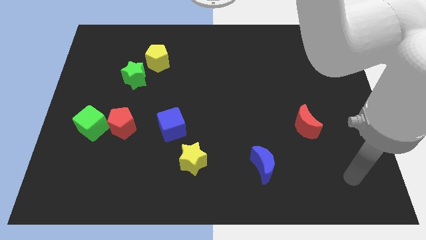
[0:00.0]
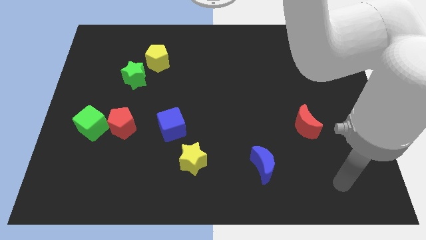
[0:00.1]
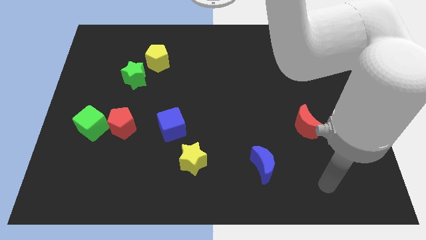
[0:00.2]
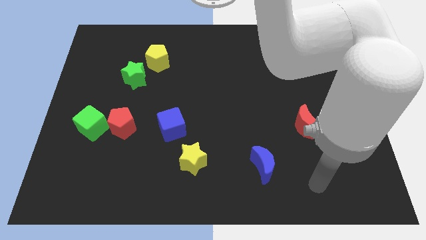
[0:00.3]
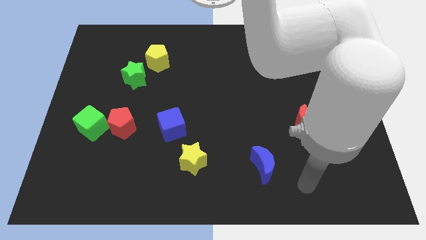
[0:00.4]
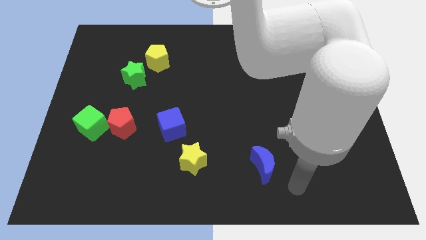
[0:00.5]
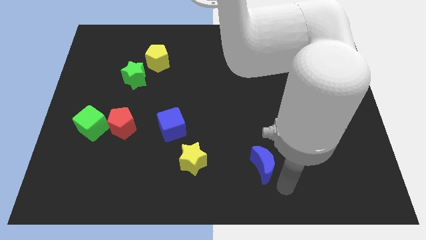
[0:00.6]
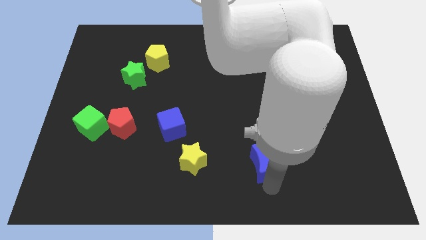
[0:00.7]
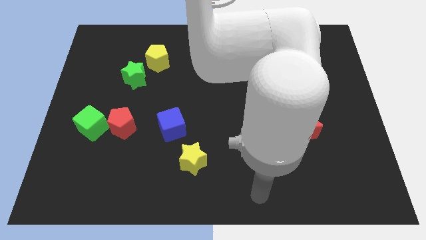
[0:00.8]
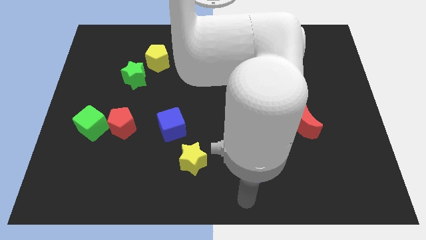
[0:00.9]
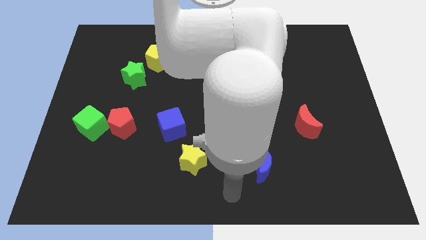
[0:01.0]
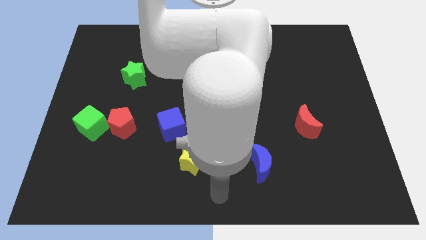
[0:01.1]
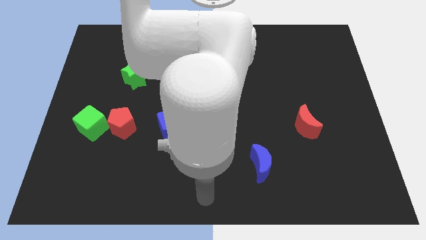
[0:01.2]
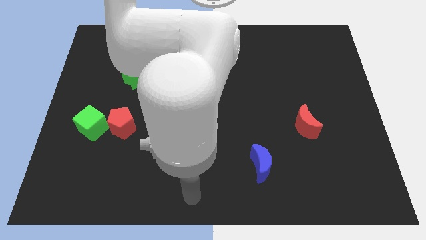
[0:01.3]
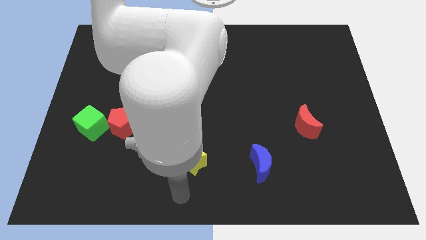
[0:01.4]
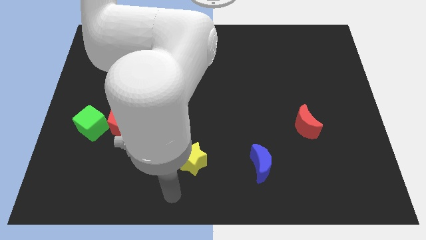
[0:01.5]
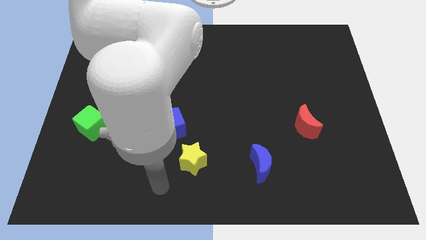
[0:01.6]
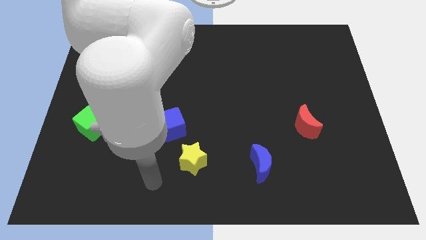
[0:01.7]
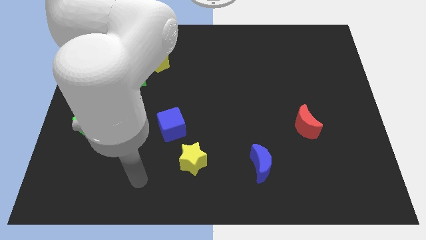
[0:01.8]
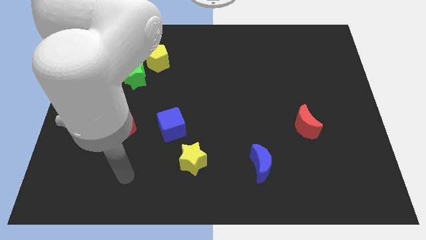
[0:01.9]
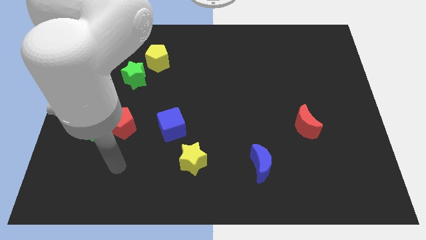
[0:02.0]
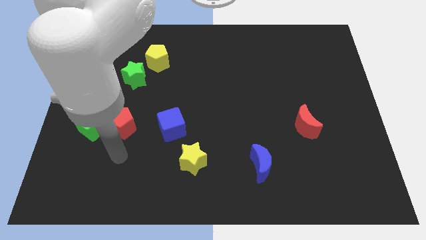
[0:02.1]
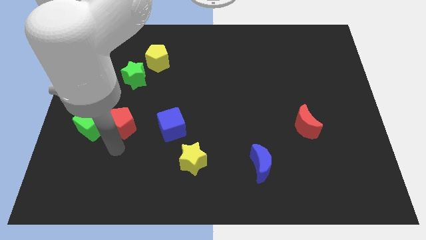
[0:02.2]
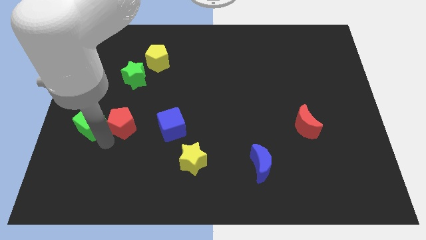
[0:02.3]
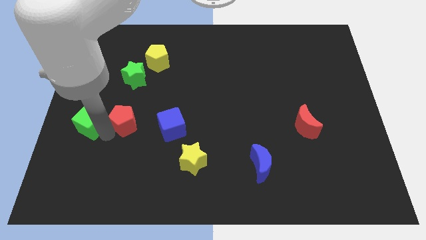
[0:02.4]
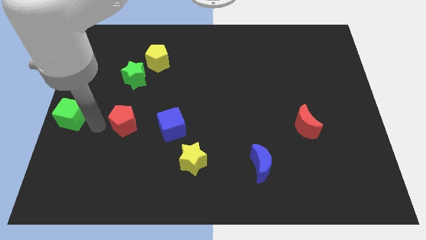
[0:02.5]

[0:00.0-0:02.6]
move the red pentagon away from the green cube

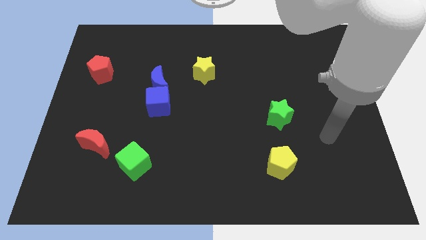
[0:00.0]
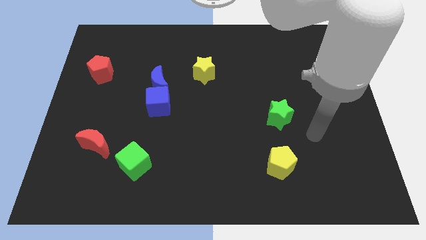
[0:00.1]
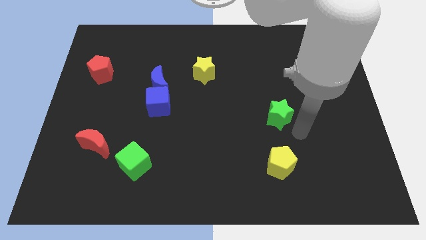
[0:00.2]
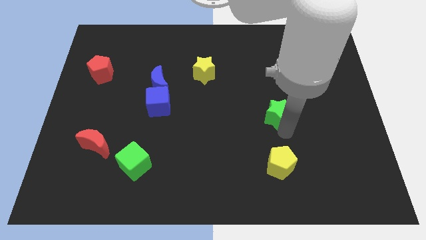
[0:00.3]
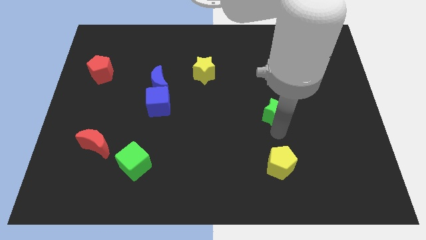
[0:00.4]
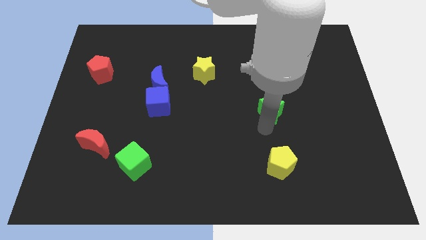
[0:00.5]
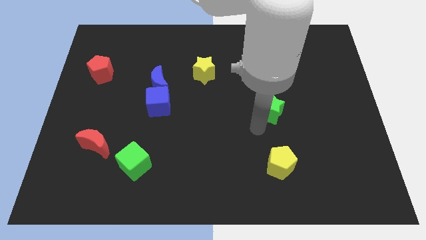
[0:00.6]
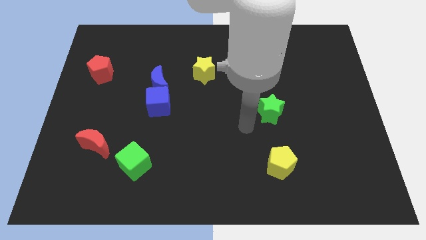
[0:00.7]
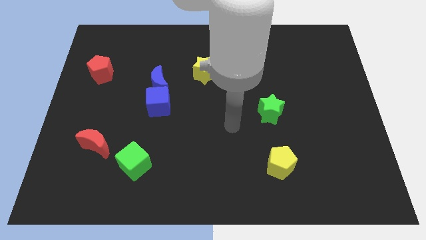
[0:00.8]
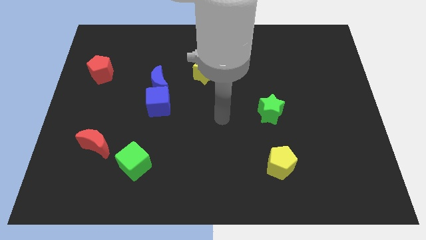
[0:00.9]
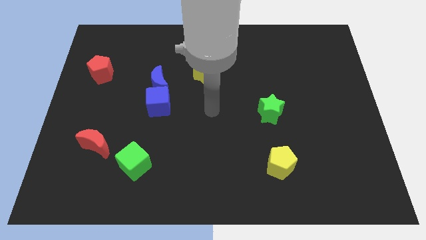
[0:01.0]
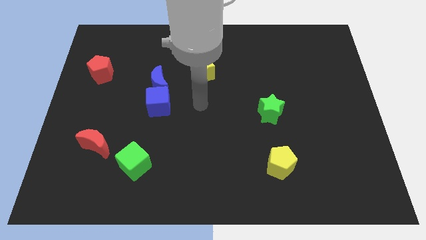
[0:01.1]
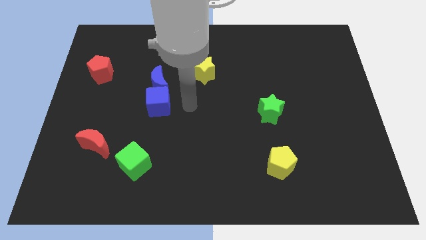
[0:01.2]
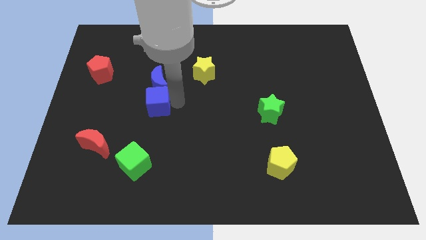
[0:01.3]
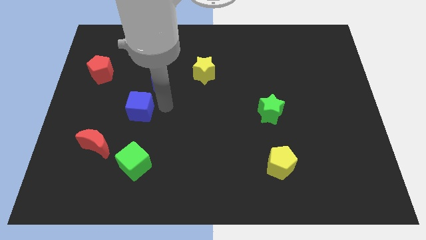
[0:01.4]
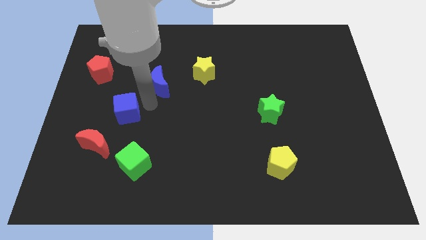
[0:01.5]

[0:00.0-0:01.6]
separate the blue moon from the blue cube

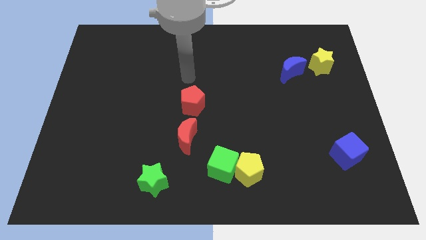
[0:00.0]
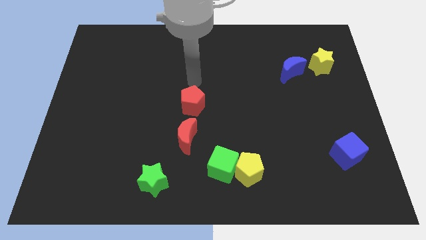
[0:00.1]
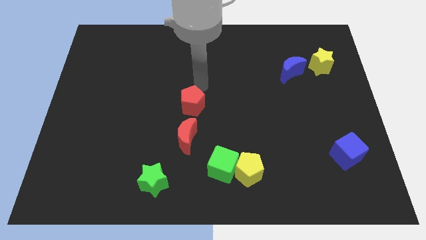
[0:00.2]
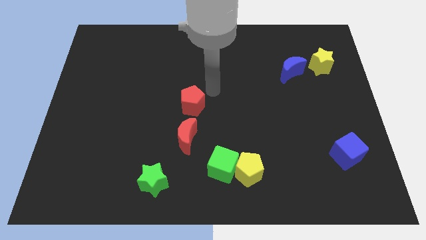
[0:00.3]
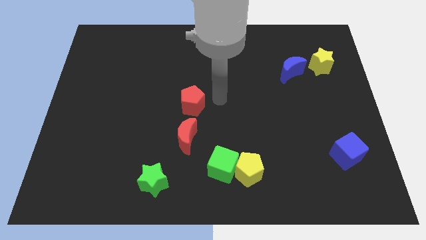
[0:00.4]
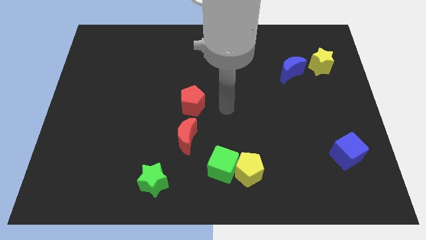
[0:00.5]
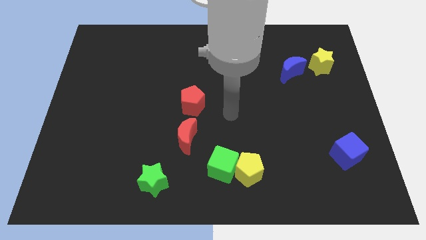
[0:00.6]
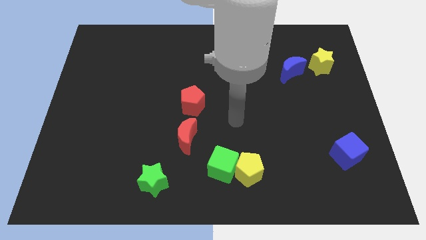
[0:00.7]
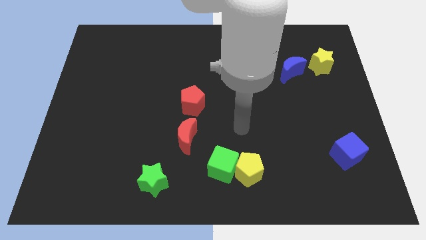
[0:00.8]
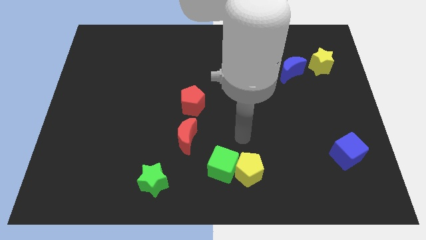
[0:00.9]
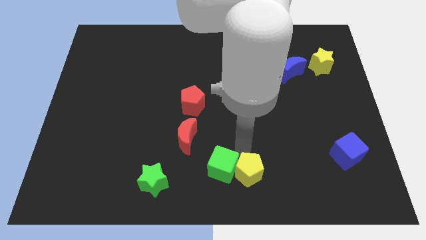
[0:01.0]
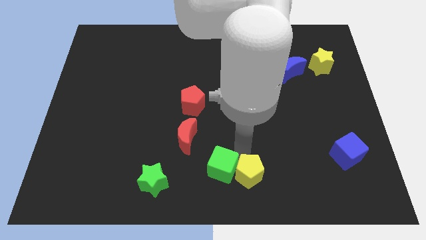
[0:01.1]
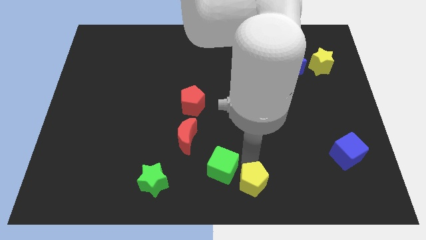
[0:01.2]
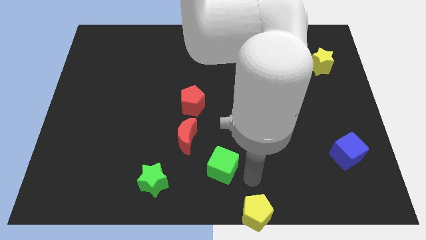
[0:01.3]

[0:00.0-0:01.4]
move the green cube away from the yellow pentagon

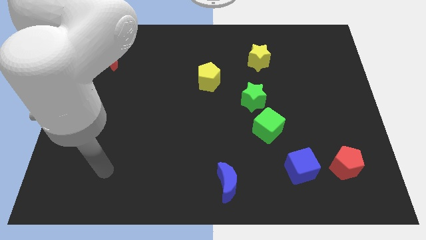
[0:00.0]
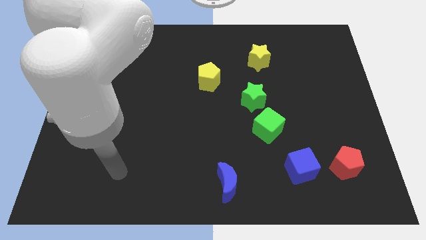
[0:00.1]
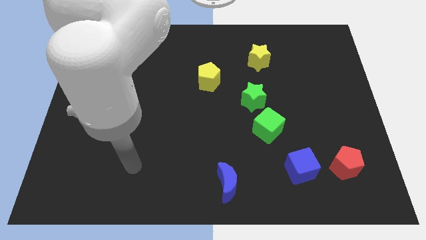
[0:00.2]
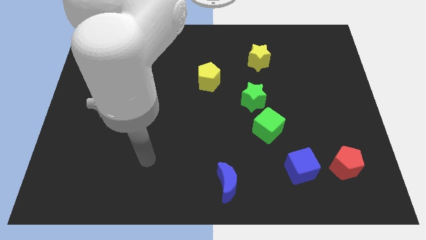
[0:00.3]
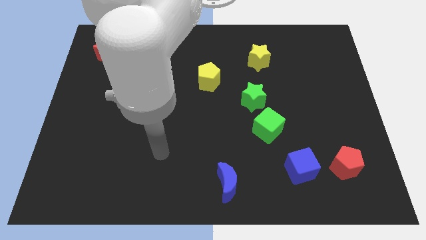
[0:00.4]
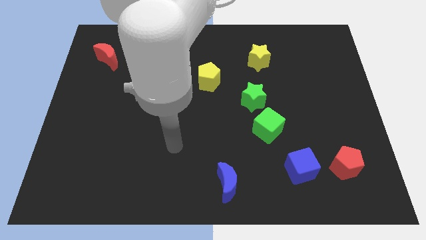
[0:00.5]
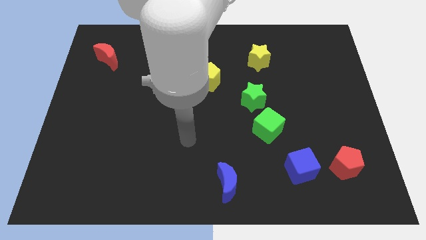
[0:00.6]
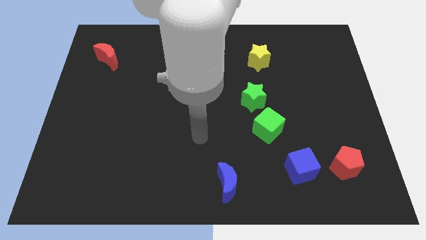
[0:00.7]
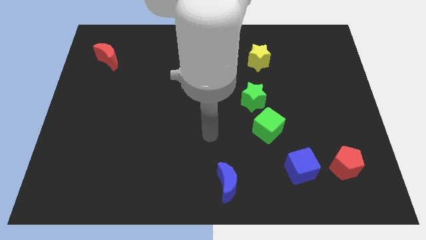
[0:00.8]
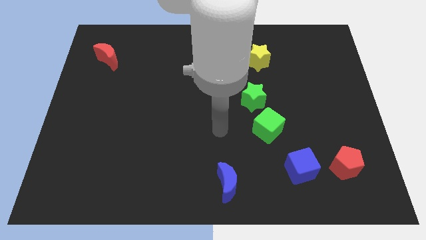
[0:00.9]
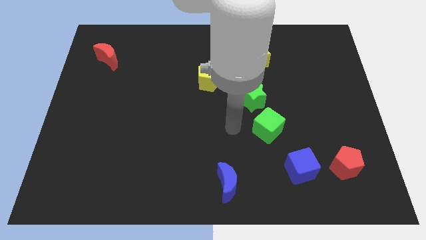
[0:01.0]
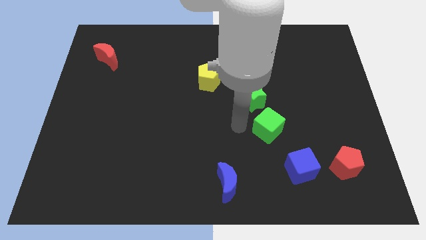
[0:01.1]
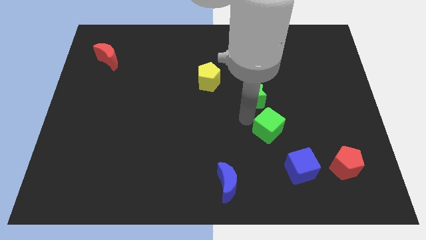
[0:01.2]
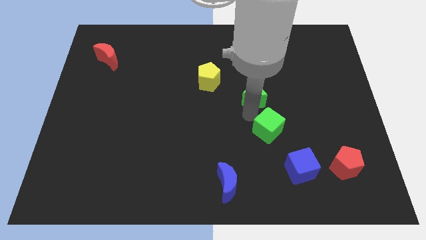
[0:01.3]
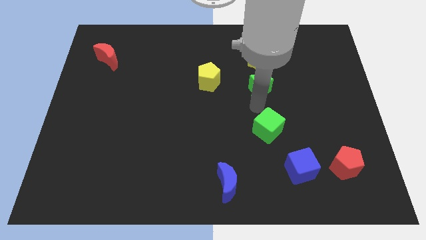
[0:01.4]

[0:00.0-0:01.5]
move the green cube away from the green star

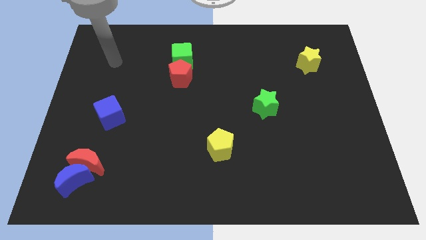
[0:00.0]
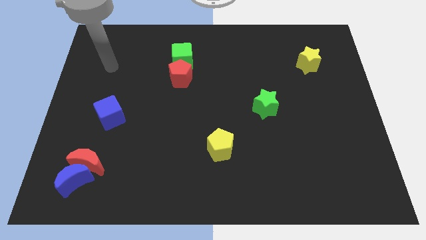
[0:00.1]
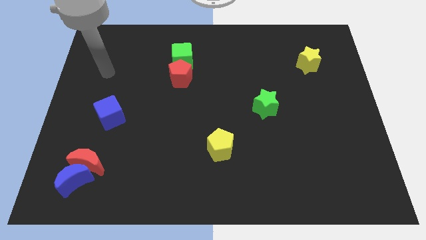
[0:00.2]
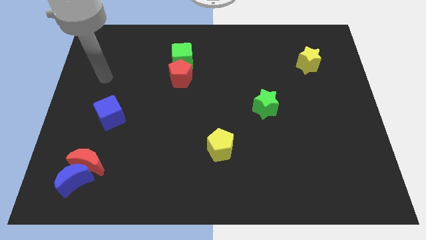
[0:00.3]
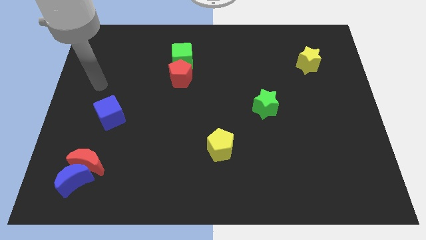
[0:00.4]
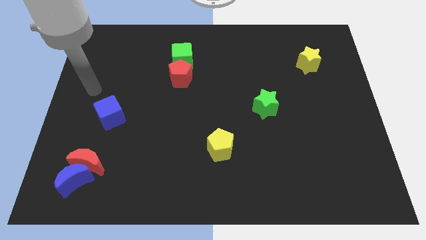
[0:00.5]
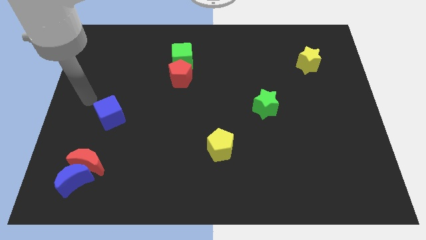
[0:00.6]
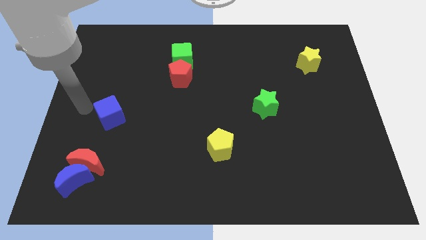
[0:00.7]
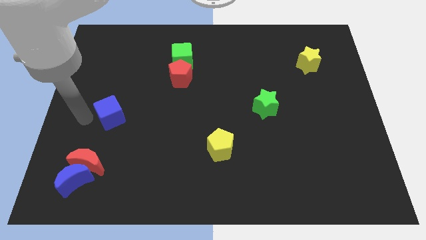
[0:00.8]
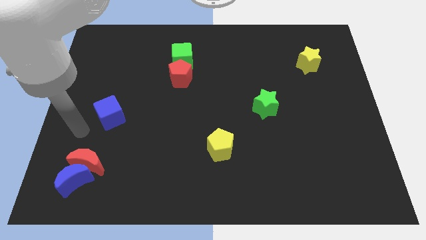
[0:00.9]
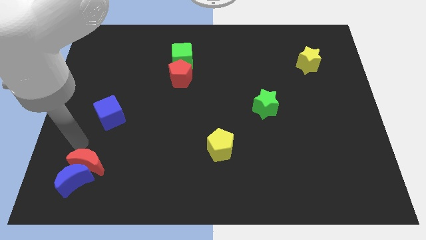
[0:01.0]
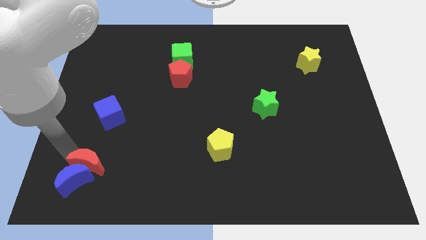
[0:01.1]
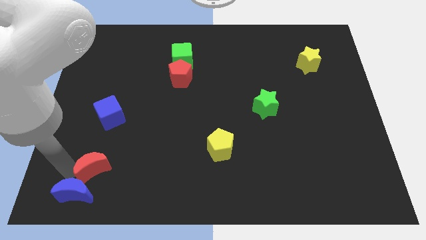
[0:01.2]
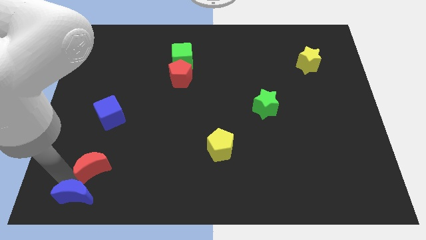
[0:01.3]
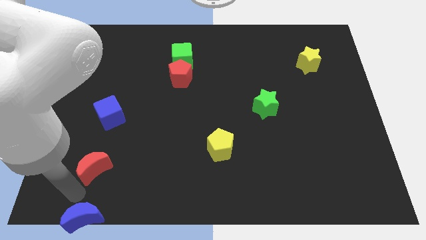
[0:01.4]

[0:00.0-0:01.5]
separate the red moon from the blue moon

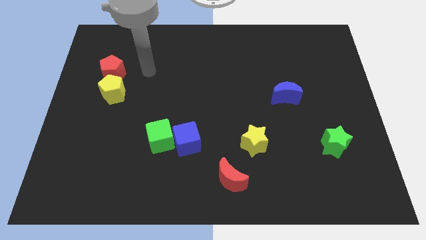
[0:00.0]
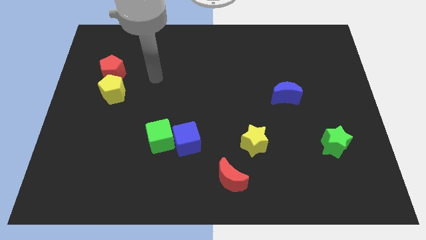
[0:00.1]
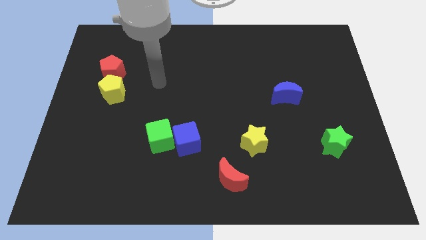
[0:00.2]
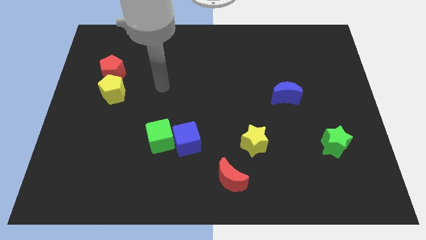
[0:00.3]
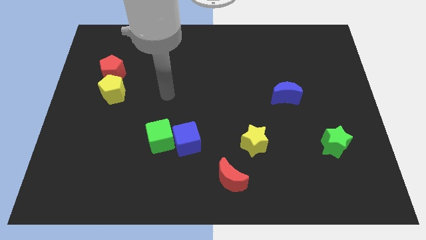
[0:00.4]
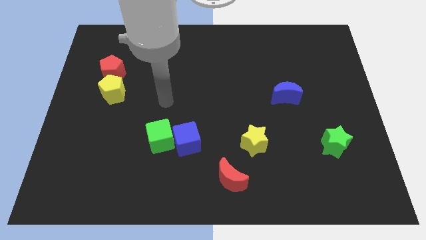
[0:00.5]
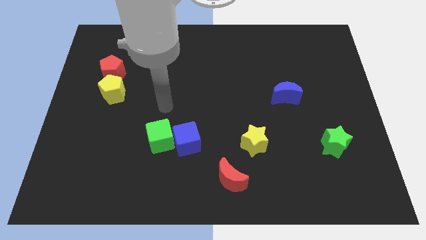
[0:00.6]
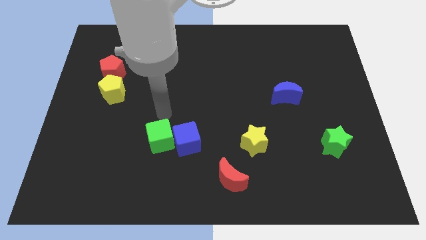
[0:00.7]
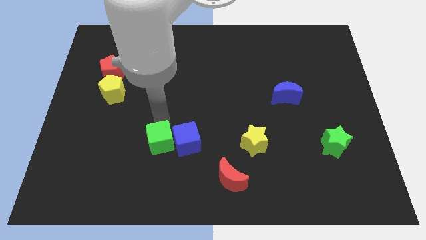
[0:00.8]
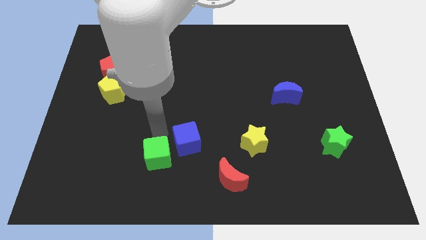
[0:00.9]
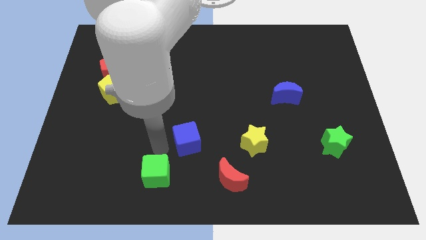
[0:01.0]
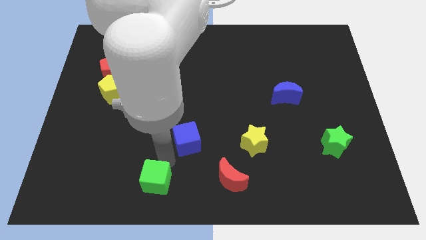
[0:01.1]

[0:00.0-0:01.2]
separate the blue cube from the green cube
